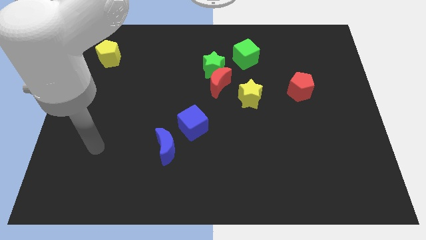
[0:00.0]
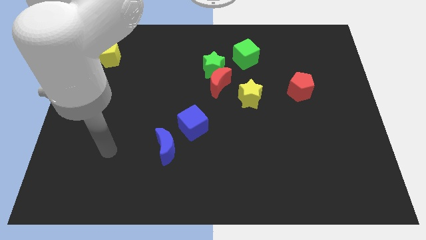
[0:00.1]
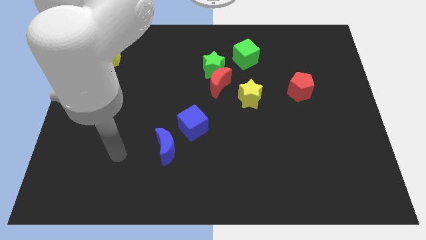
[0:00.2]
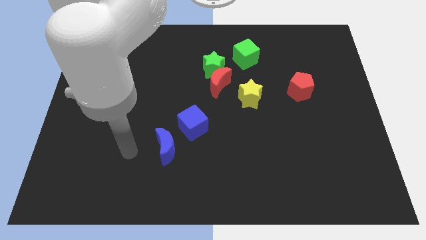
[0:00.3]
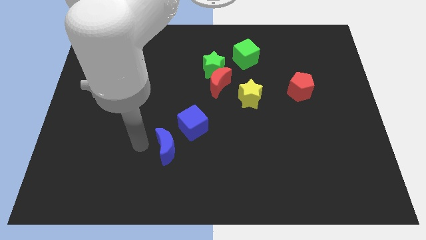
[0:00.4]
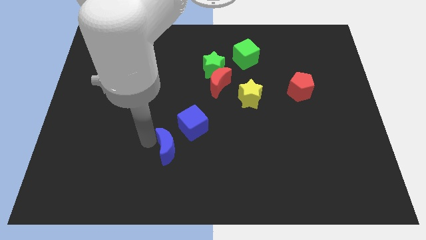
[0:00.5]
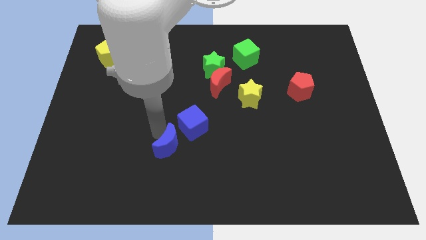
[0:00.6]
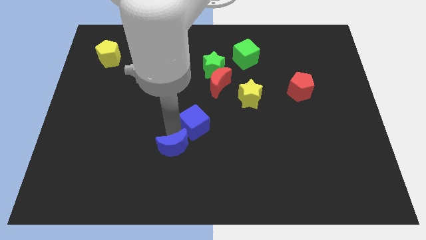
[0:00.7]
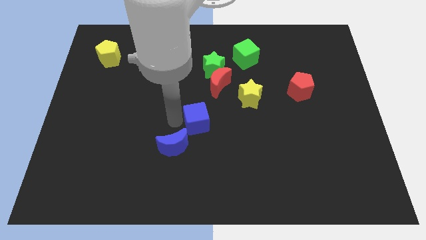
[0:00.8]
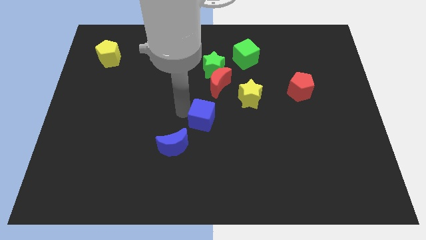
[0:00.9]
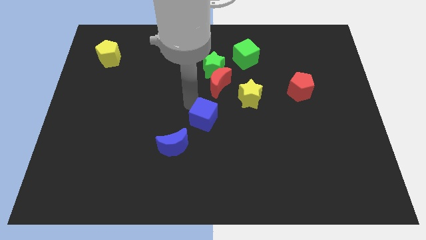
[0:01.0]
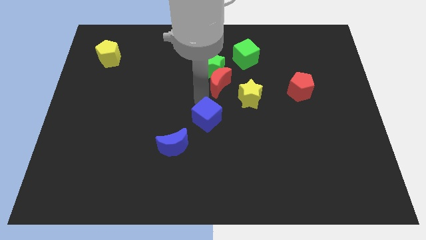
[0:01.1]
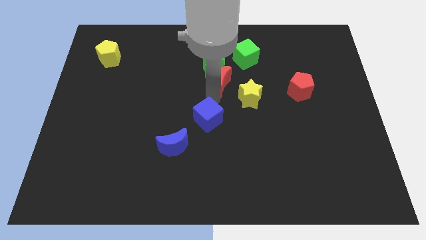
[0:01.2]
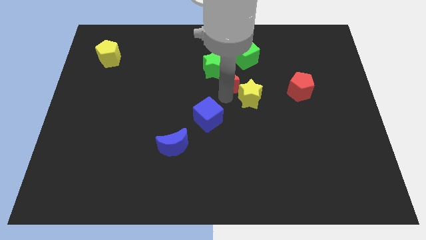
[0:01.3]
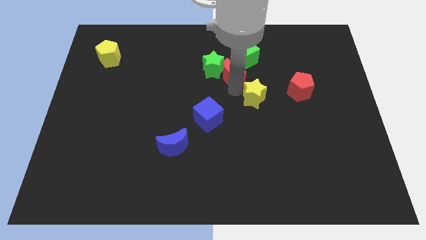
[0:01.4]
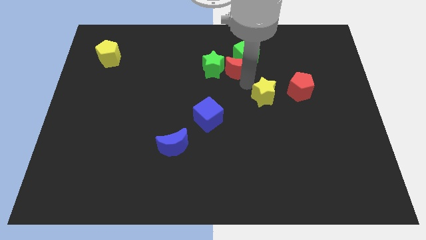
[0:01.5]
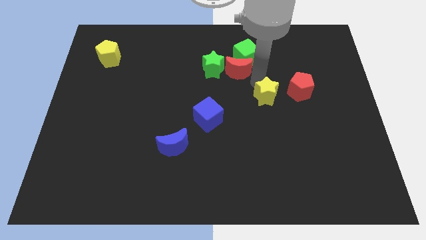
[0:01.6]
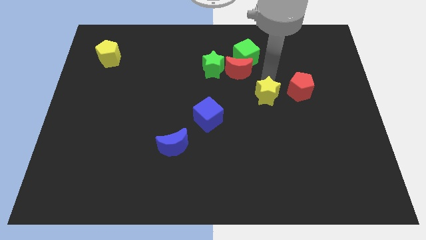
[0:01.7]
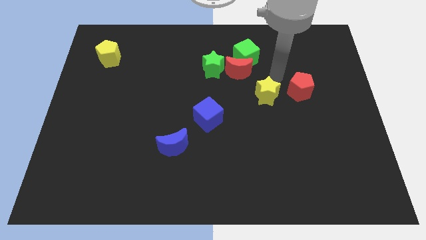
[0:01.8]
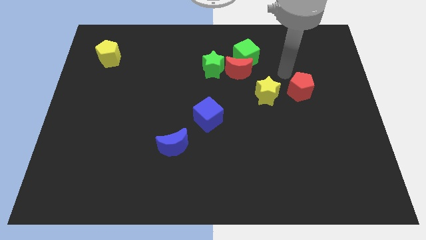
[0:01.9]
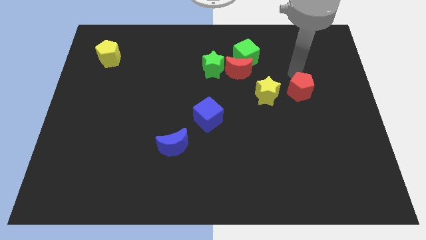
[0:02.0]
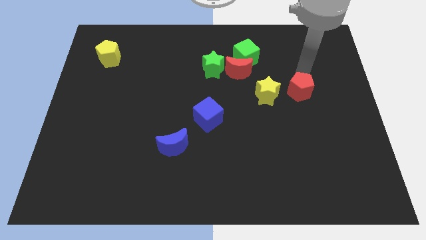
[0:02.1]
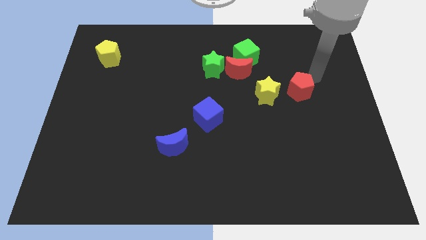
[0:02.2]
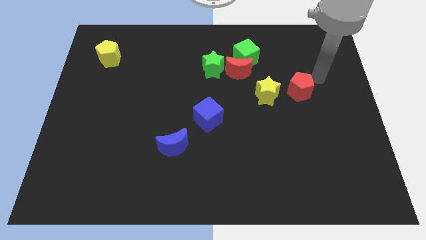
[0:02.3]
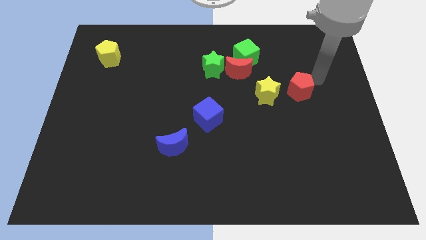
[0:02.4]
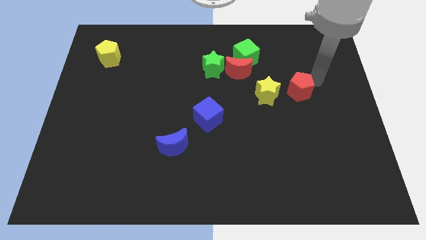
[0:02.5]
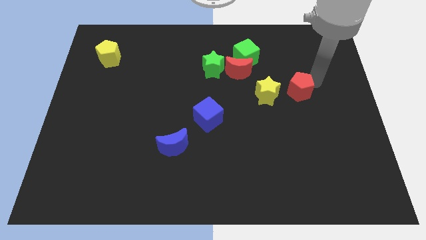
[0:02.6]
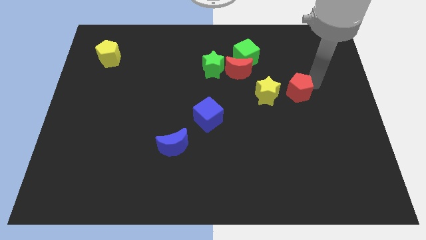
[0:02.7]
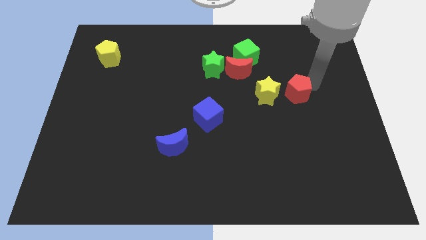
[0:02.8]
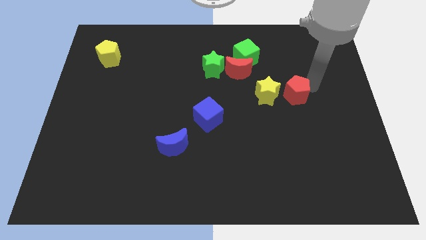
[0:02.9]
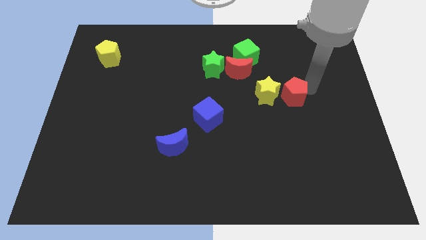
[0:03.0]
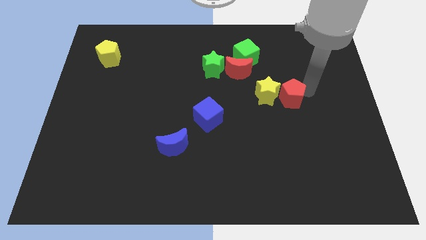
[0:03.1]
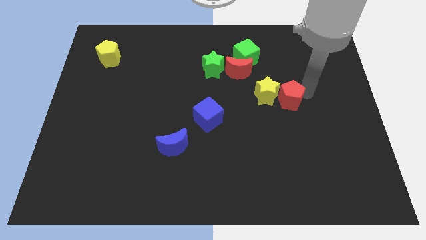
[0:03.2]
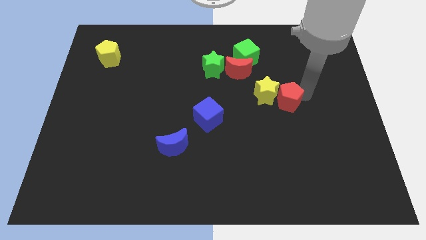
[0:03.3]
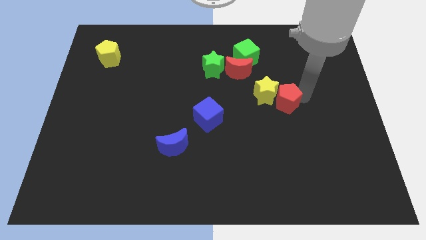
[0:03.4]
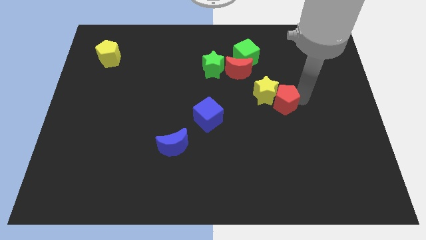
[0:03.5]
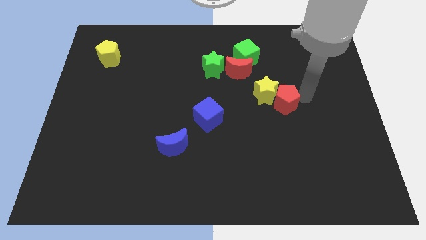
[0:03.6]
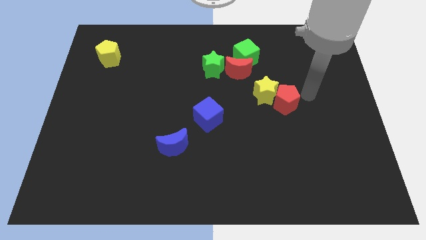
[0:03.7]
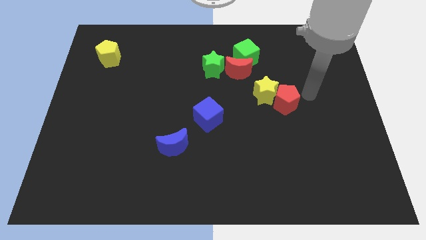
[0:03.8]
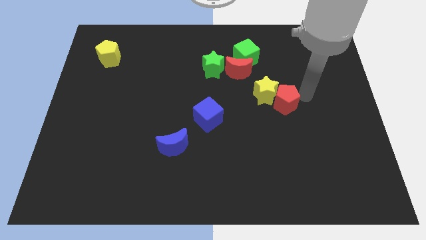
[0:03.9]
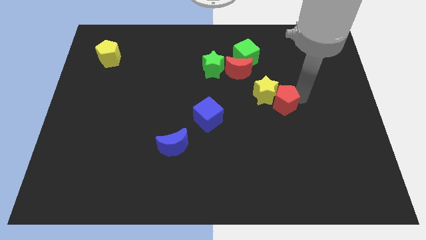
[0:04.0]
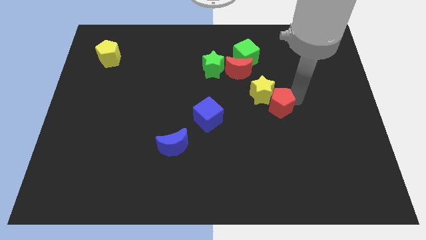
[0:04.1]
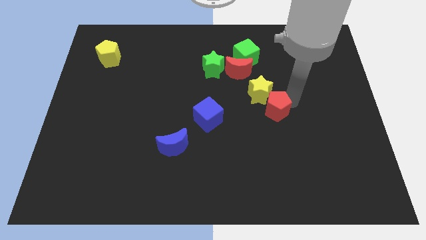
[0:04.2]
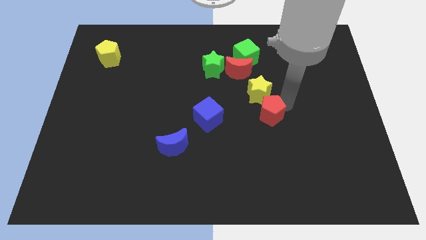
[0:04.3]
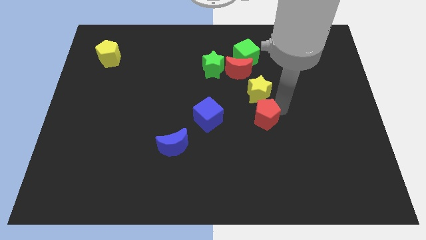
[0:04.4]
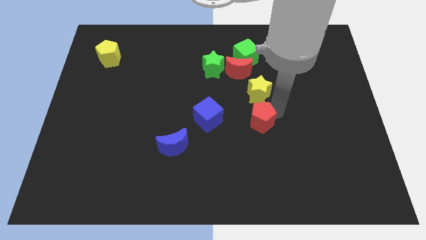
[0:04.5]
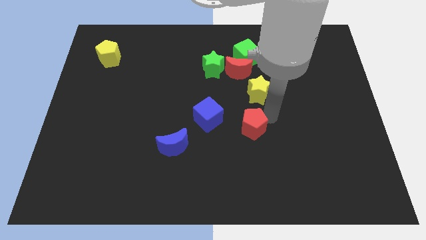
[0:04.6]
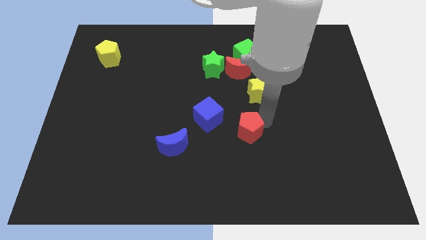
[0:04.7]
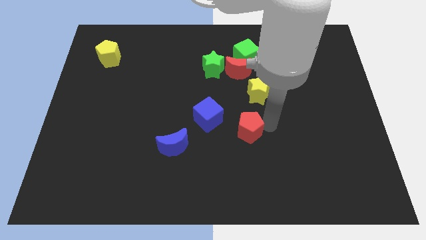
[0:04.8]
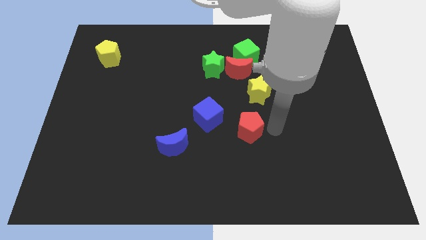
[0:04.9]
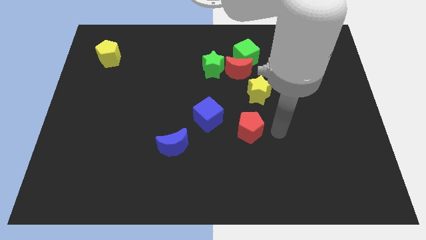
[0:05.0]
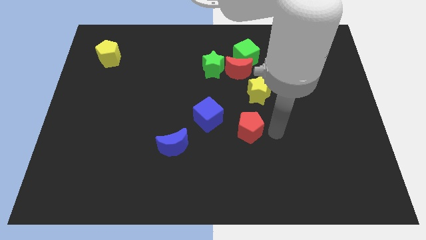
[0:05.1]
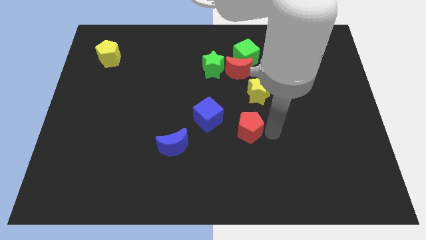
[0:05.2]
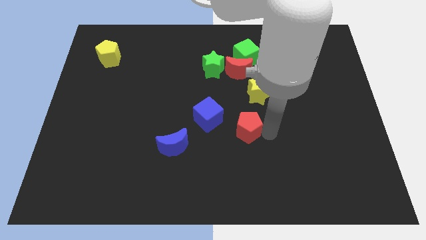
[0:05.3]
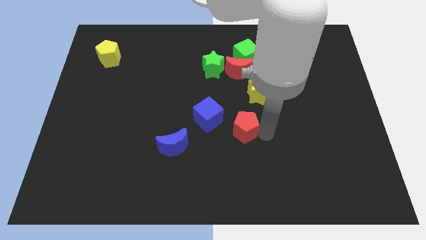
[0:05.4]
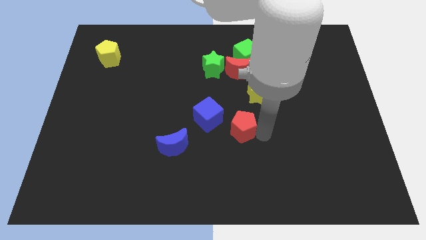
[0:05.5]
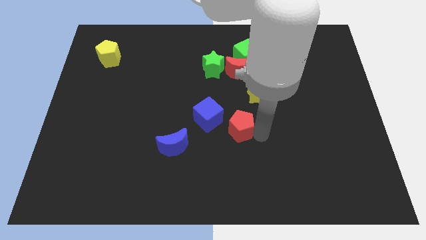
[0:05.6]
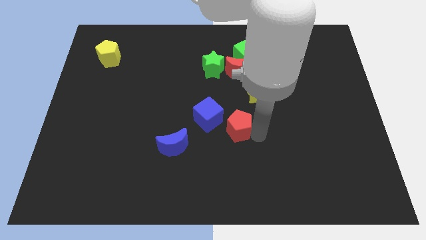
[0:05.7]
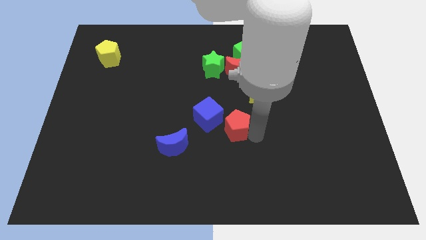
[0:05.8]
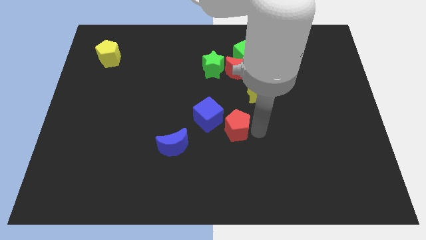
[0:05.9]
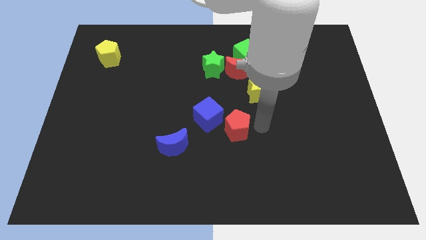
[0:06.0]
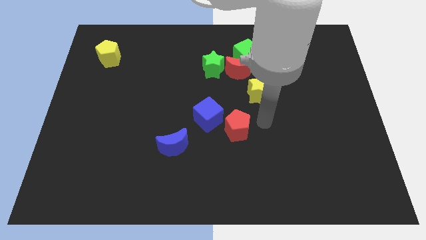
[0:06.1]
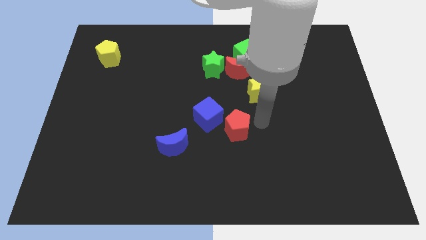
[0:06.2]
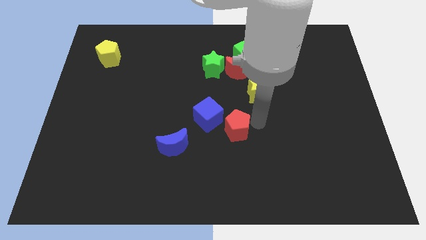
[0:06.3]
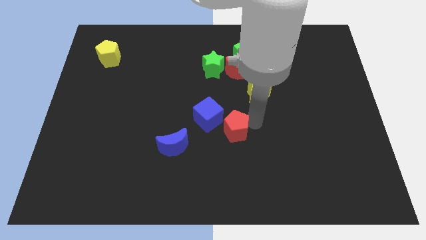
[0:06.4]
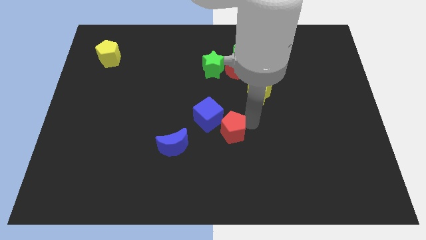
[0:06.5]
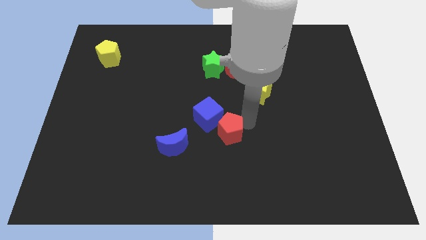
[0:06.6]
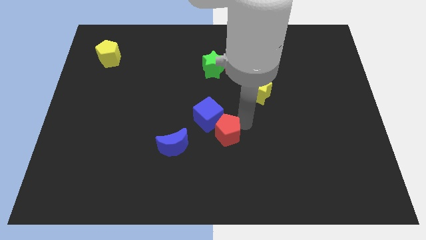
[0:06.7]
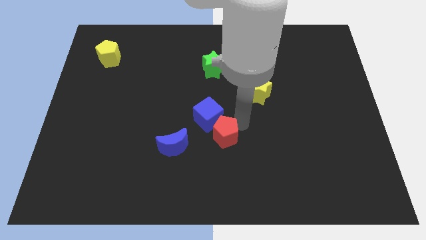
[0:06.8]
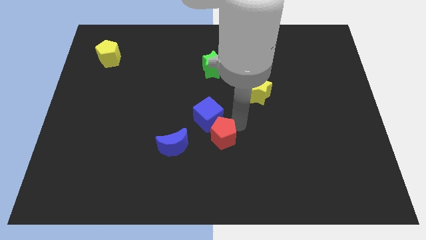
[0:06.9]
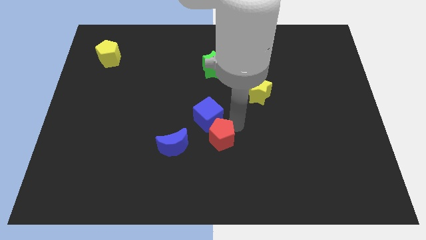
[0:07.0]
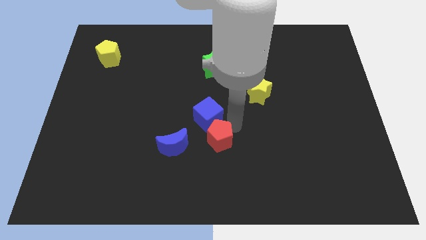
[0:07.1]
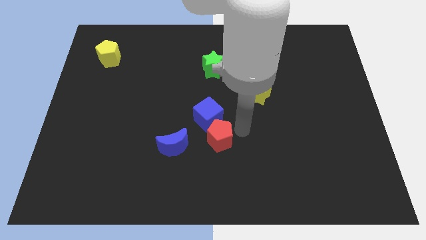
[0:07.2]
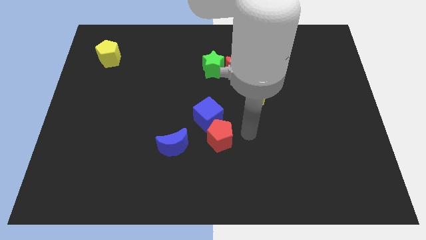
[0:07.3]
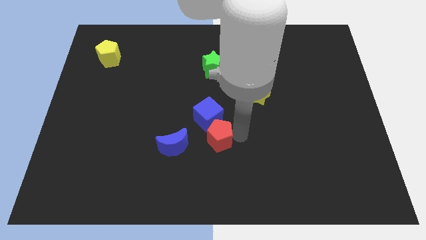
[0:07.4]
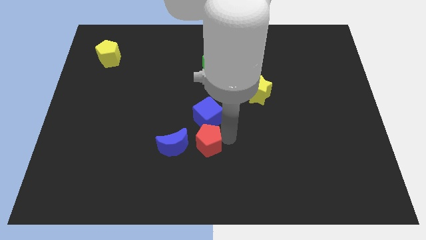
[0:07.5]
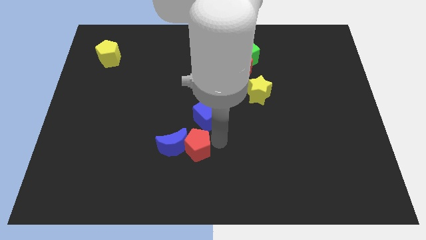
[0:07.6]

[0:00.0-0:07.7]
move the red pentagon towards the blue moon
